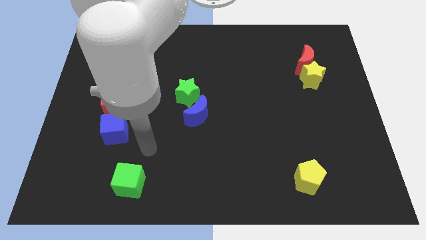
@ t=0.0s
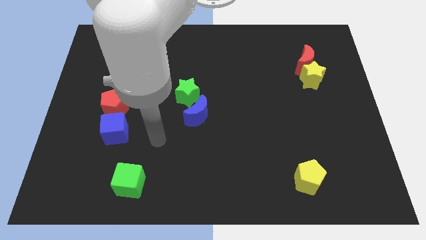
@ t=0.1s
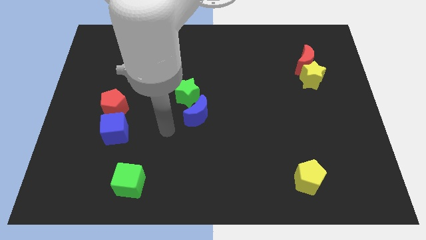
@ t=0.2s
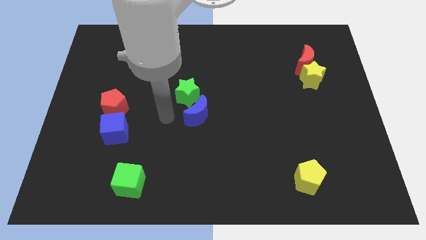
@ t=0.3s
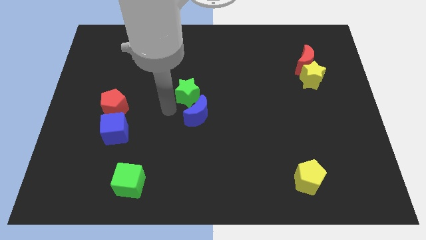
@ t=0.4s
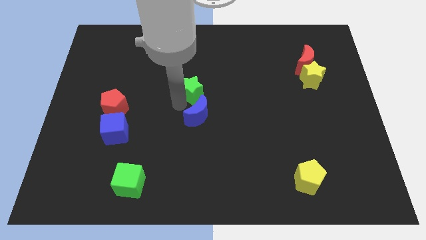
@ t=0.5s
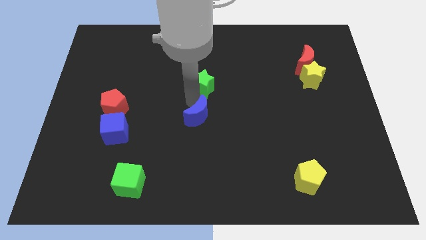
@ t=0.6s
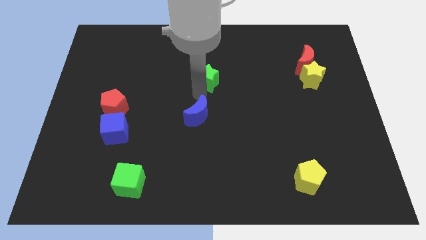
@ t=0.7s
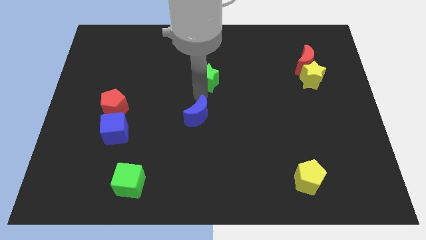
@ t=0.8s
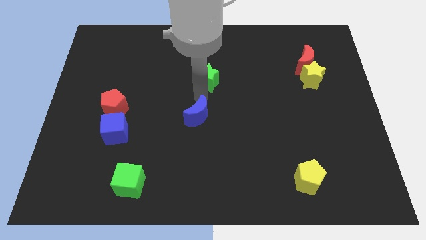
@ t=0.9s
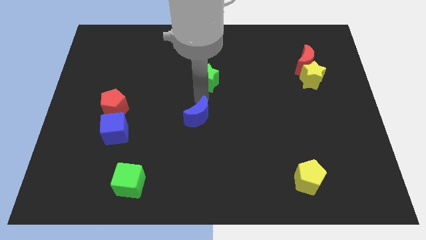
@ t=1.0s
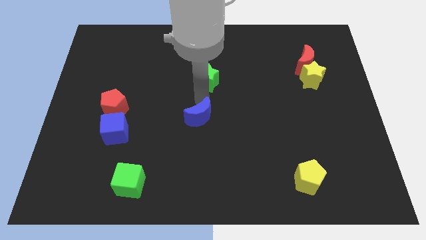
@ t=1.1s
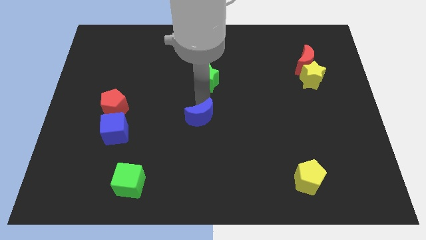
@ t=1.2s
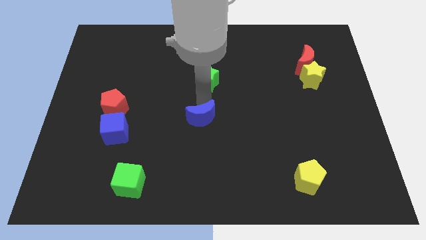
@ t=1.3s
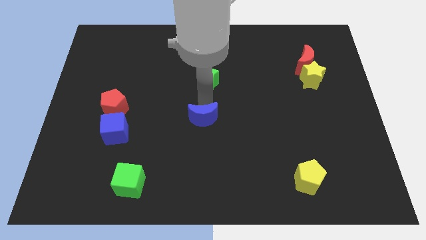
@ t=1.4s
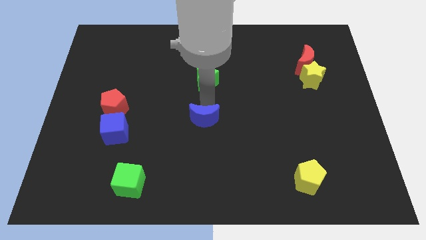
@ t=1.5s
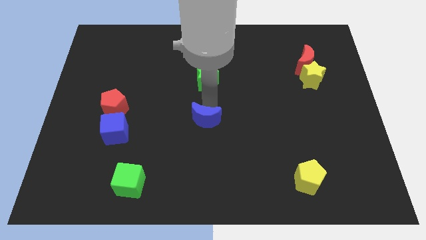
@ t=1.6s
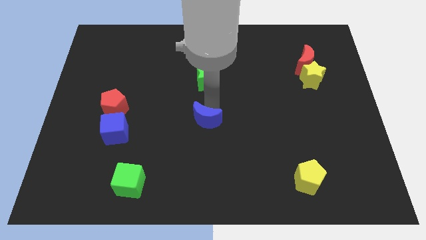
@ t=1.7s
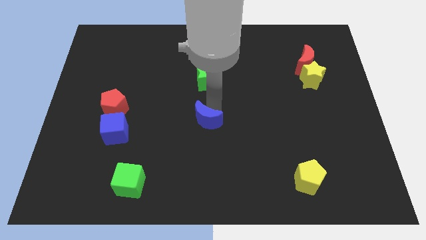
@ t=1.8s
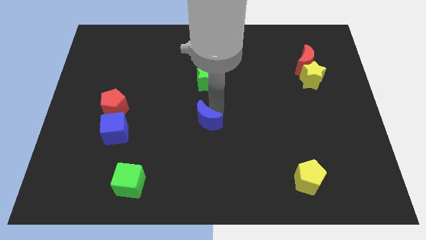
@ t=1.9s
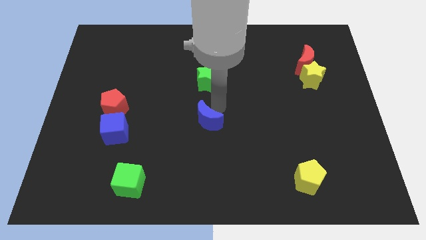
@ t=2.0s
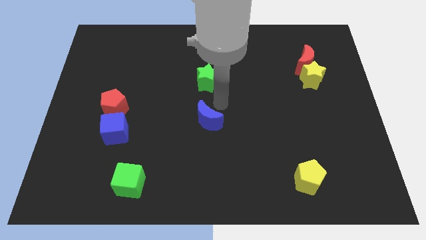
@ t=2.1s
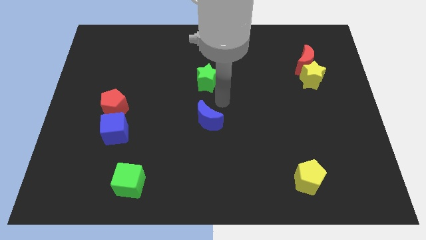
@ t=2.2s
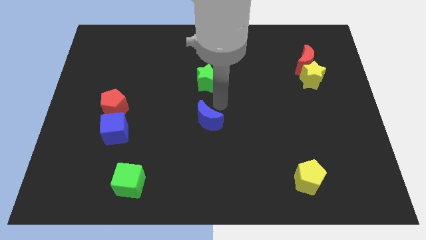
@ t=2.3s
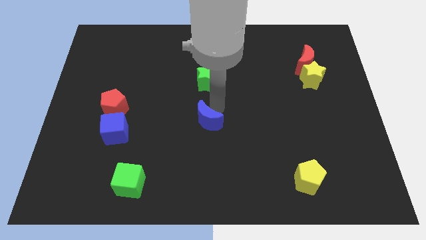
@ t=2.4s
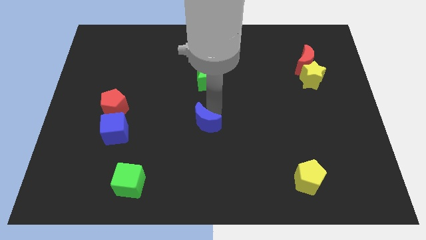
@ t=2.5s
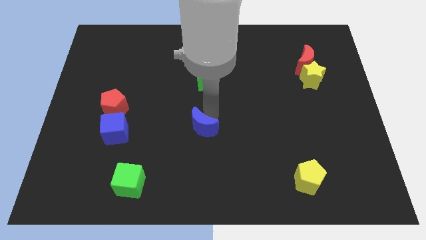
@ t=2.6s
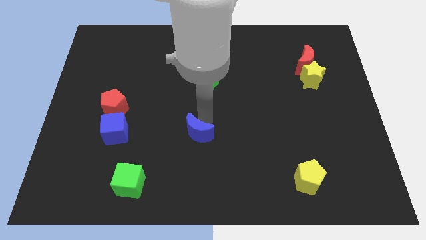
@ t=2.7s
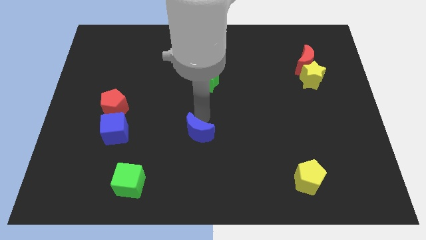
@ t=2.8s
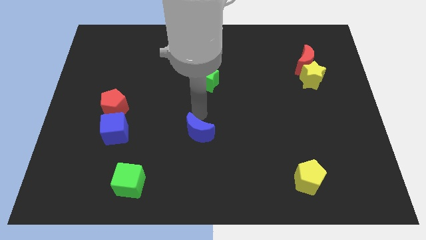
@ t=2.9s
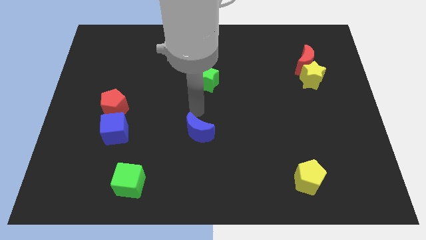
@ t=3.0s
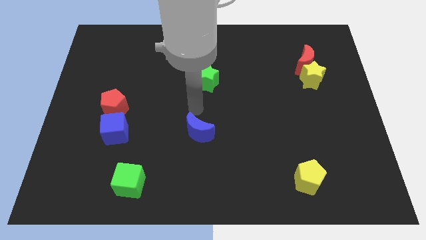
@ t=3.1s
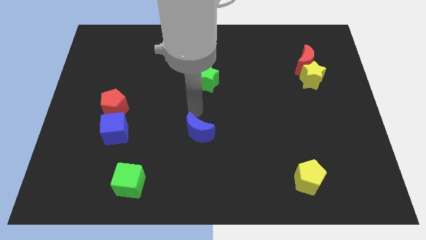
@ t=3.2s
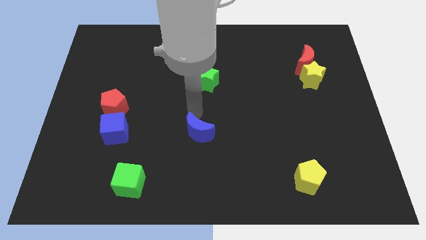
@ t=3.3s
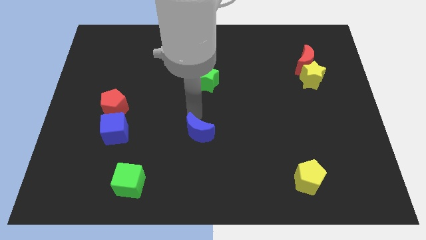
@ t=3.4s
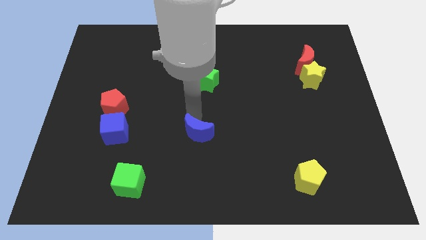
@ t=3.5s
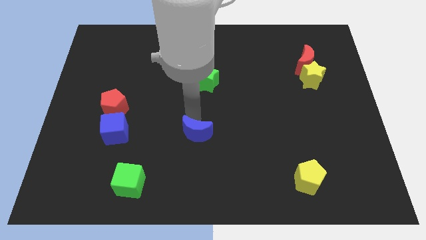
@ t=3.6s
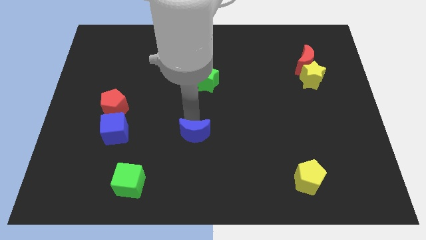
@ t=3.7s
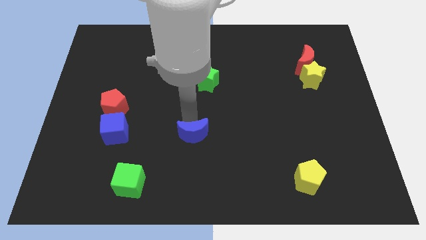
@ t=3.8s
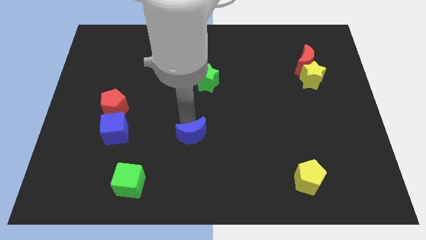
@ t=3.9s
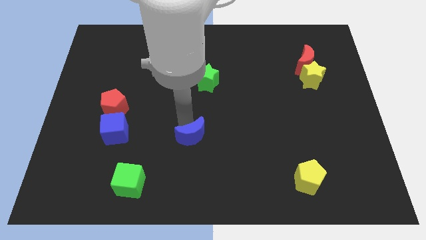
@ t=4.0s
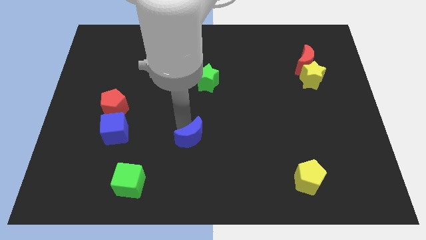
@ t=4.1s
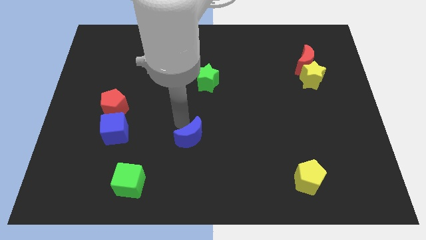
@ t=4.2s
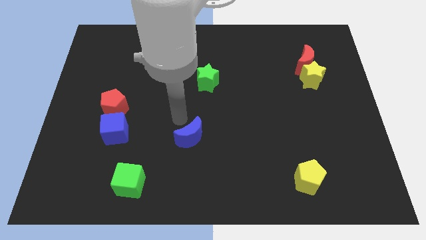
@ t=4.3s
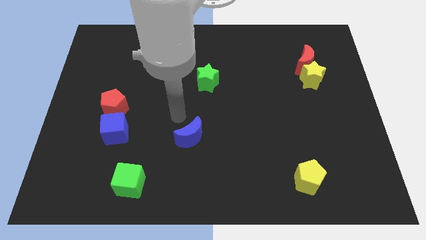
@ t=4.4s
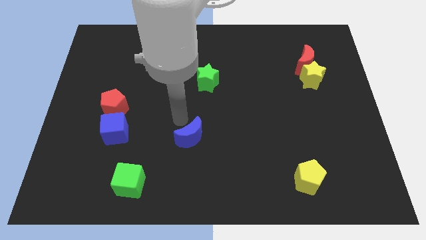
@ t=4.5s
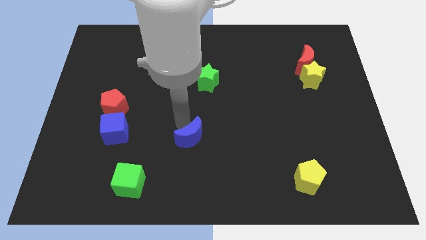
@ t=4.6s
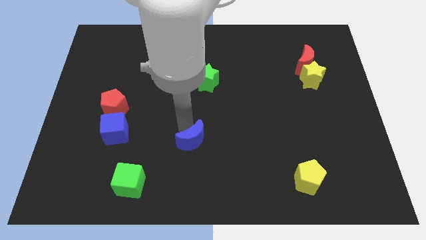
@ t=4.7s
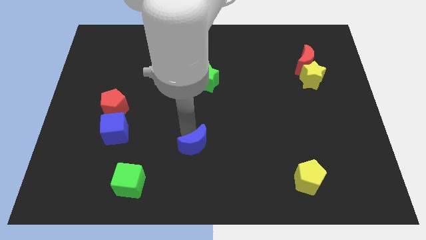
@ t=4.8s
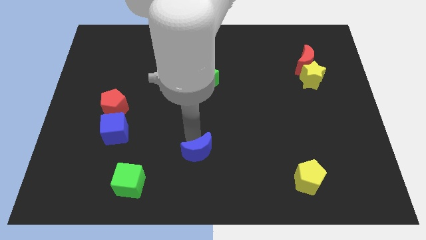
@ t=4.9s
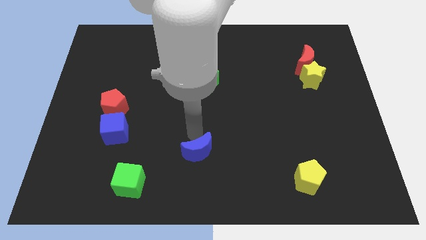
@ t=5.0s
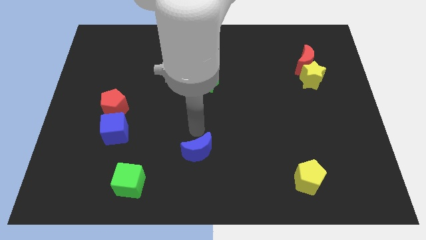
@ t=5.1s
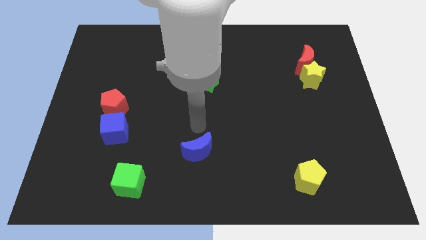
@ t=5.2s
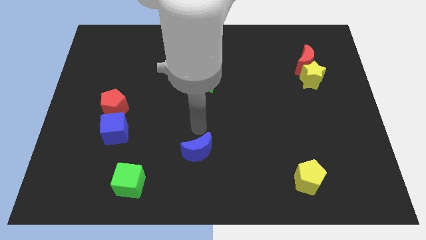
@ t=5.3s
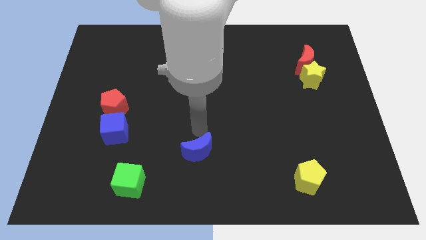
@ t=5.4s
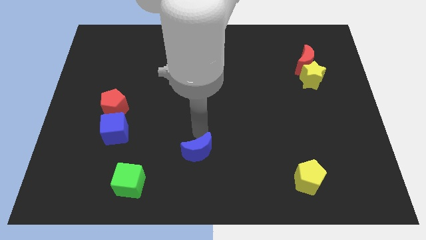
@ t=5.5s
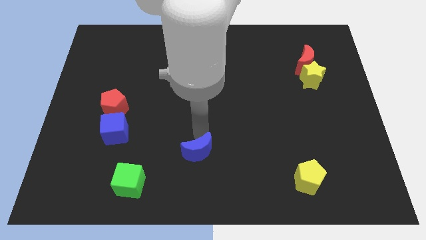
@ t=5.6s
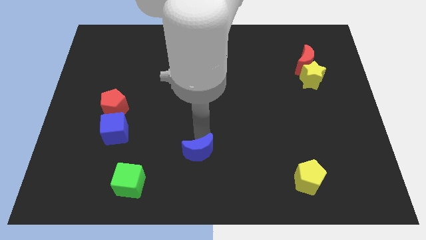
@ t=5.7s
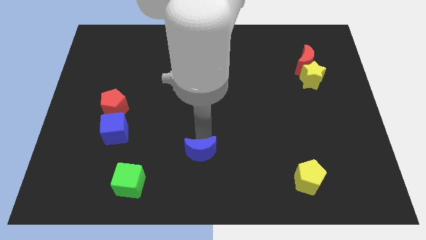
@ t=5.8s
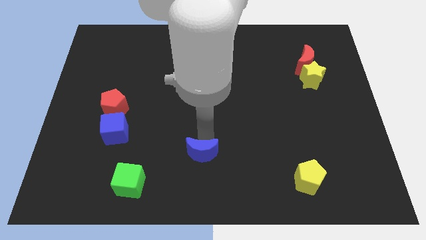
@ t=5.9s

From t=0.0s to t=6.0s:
push the blue moon to the bottom

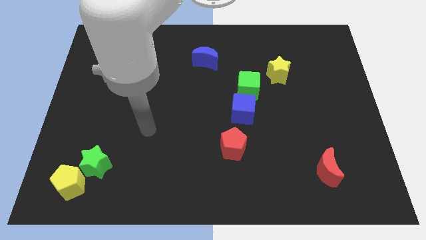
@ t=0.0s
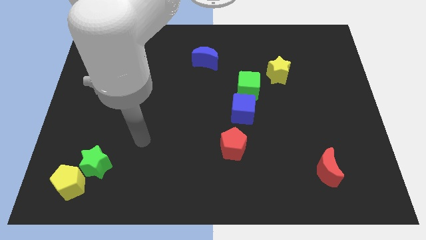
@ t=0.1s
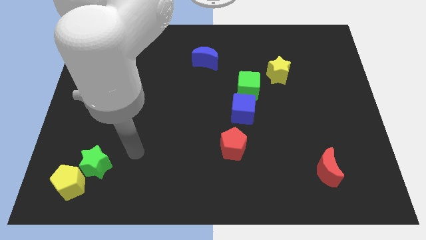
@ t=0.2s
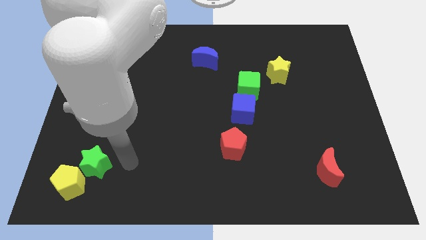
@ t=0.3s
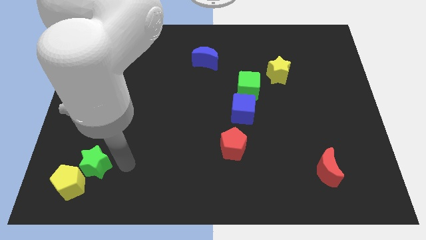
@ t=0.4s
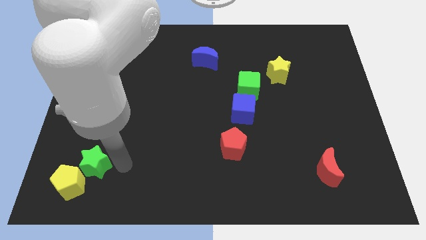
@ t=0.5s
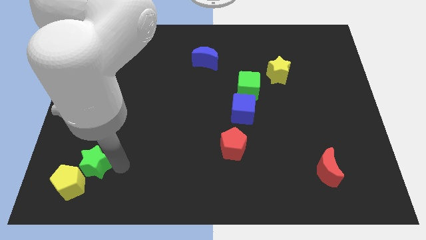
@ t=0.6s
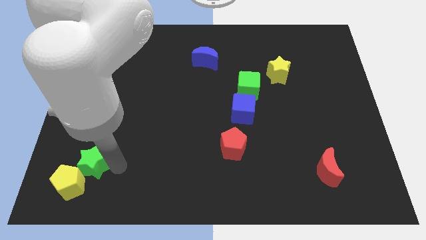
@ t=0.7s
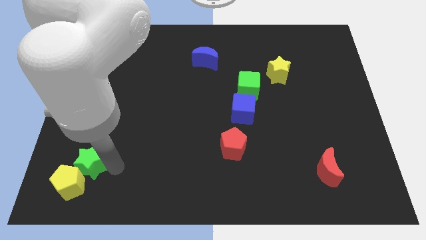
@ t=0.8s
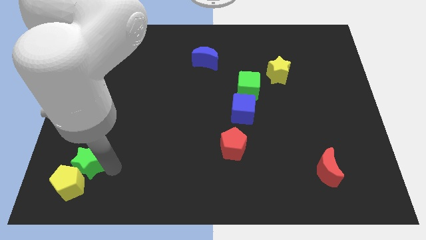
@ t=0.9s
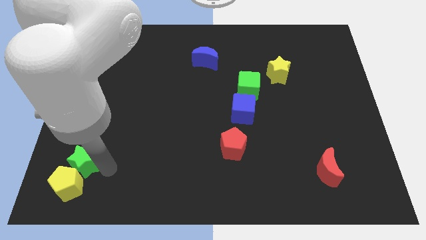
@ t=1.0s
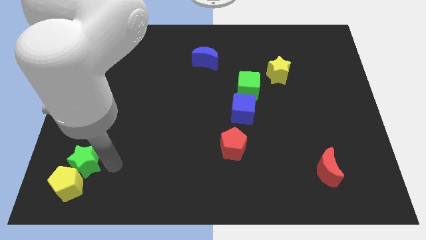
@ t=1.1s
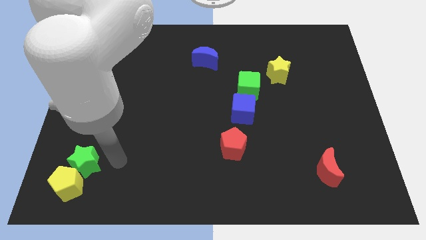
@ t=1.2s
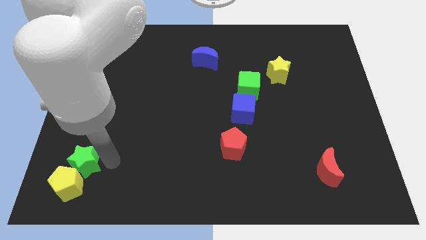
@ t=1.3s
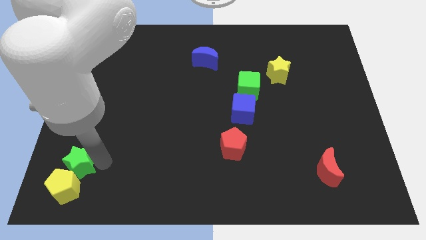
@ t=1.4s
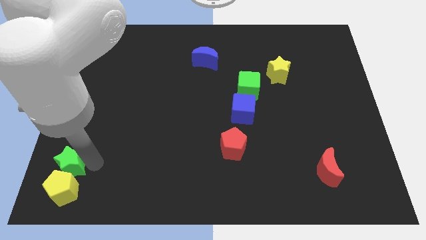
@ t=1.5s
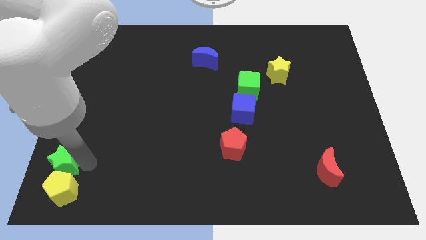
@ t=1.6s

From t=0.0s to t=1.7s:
put the green star to the bottom left corner
